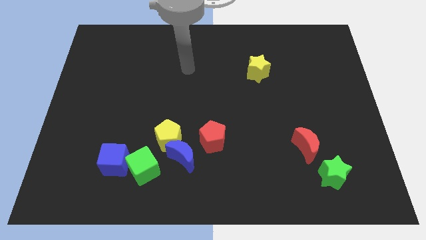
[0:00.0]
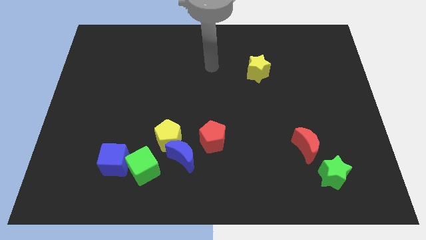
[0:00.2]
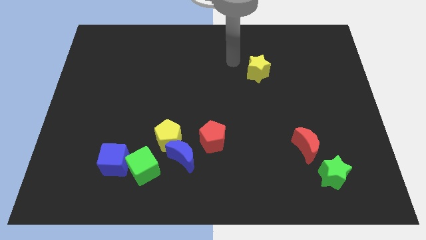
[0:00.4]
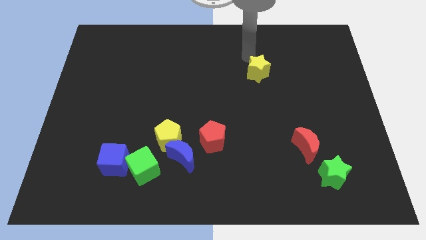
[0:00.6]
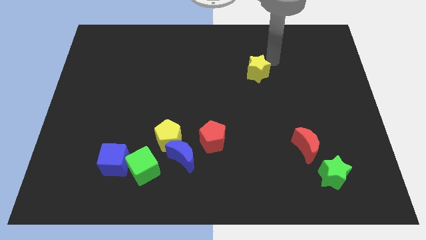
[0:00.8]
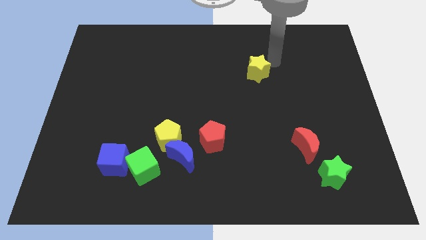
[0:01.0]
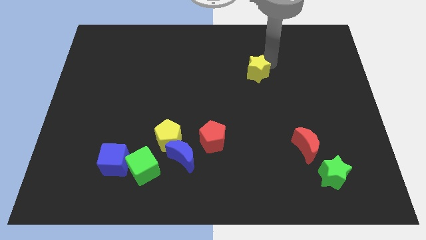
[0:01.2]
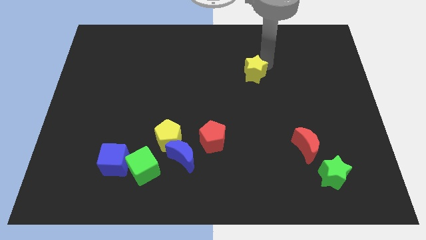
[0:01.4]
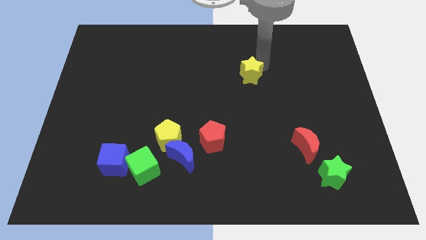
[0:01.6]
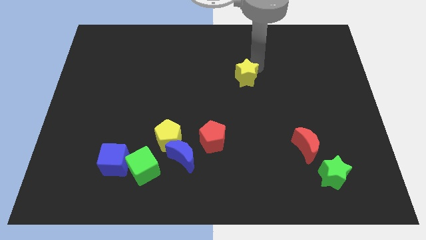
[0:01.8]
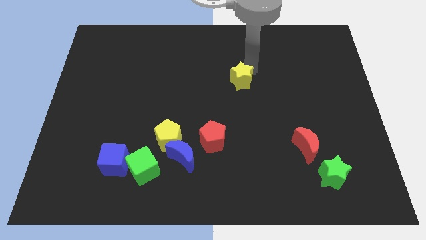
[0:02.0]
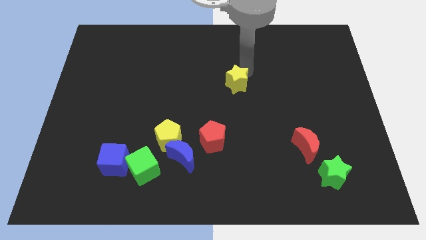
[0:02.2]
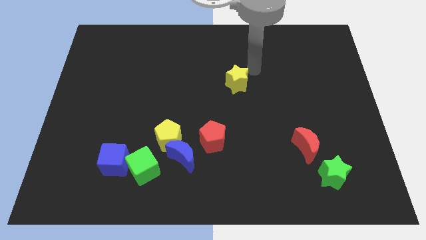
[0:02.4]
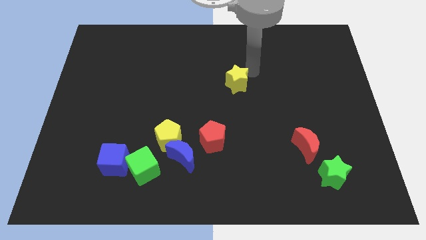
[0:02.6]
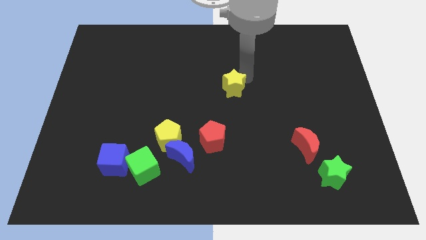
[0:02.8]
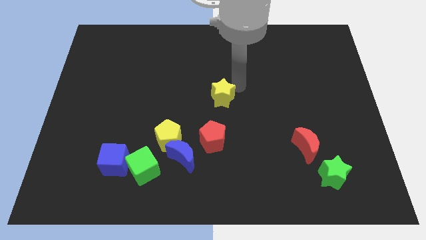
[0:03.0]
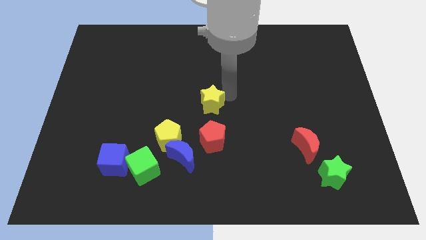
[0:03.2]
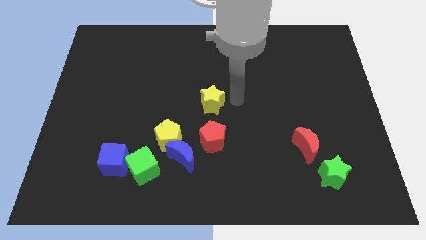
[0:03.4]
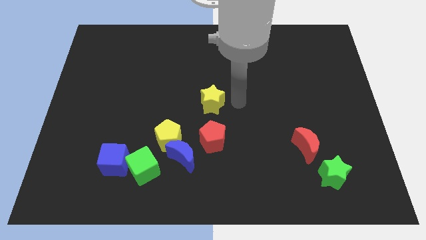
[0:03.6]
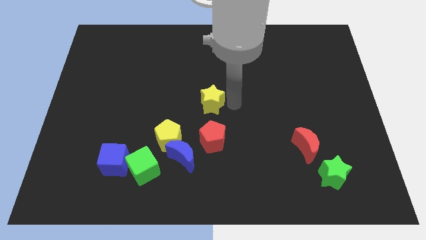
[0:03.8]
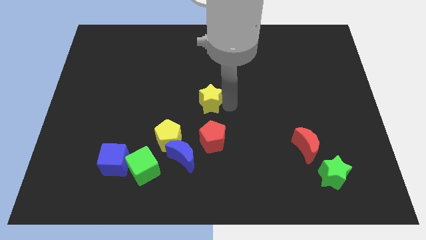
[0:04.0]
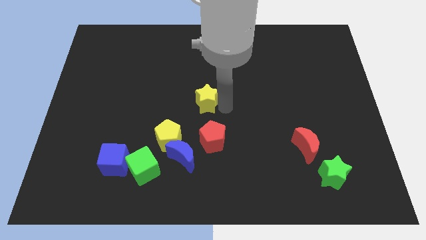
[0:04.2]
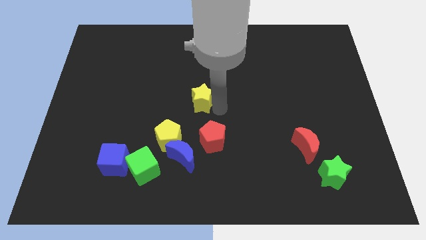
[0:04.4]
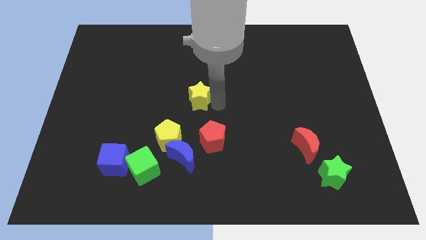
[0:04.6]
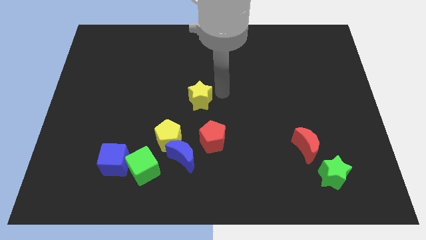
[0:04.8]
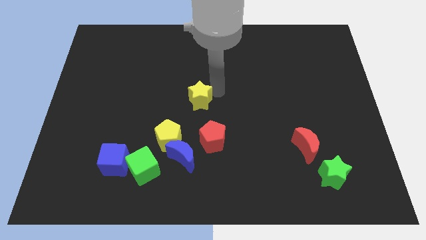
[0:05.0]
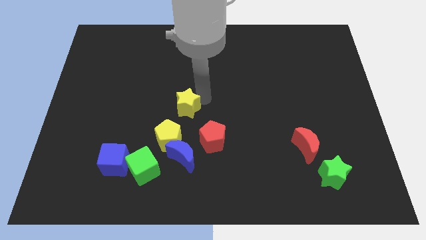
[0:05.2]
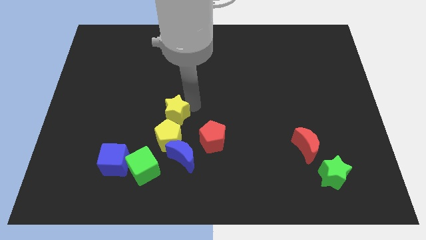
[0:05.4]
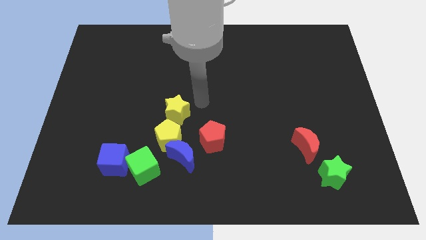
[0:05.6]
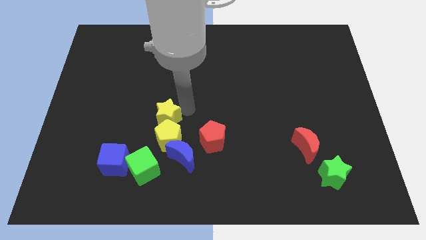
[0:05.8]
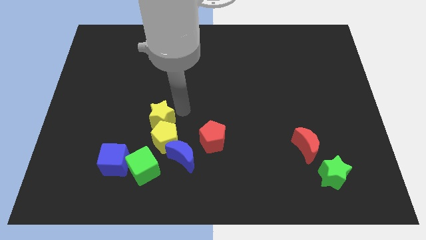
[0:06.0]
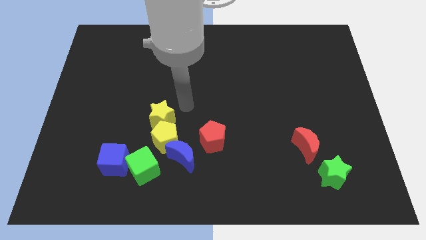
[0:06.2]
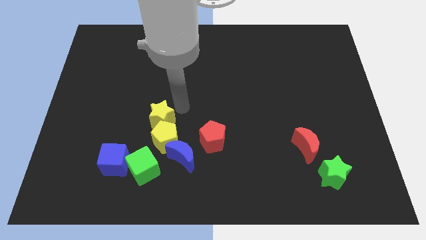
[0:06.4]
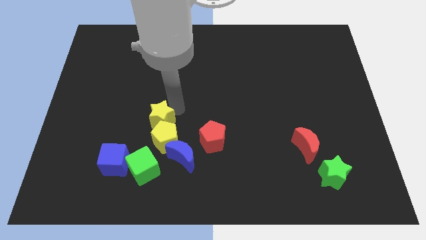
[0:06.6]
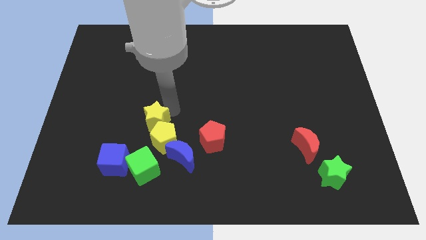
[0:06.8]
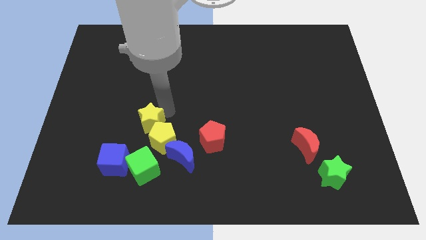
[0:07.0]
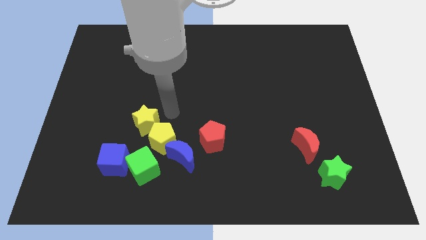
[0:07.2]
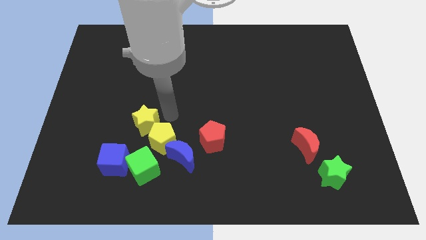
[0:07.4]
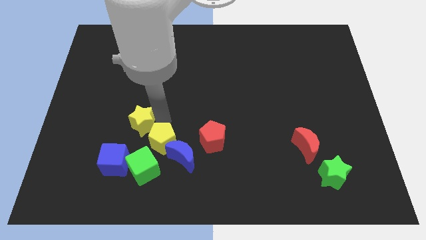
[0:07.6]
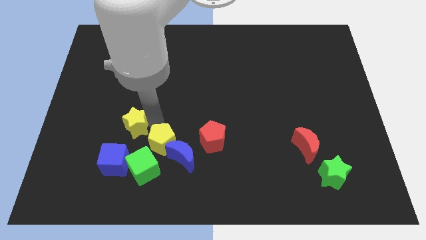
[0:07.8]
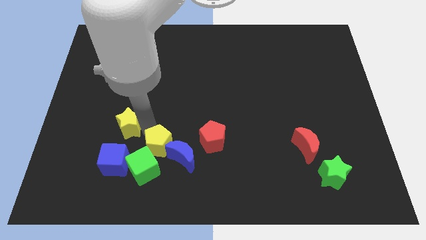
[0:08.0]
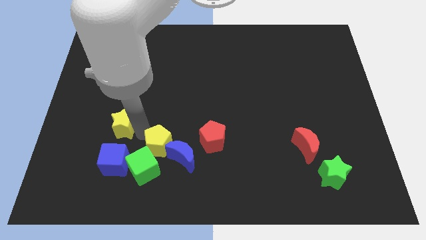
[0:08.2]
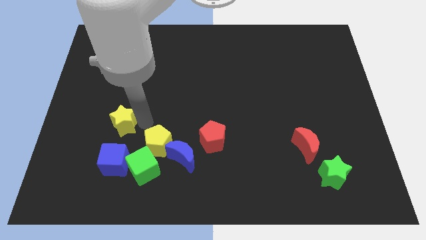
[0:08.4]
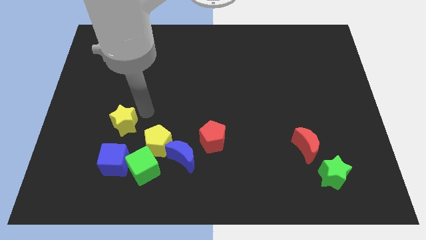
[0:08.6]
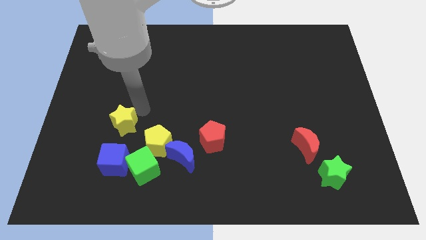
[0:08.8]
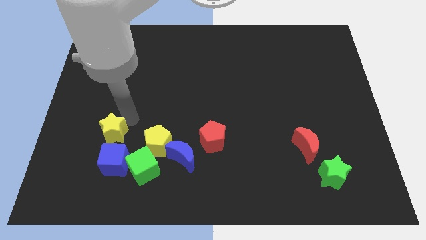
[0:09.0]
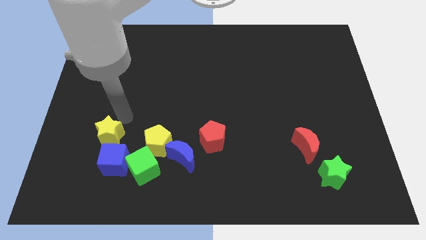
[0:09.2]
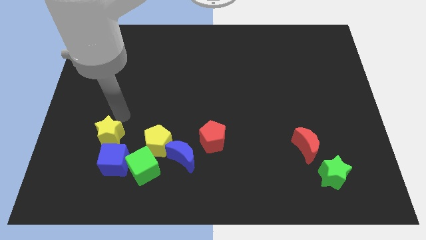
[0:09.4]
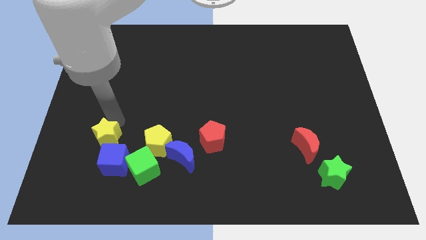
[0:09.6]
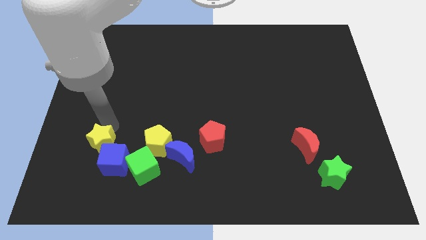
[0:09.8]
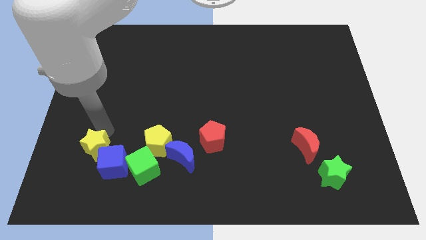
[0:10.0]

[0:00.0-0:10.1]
push the yellow star just left of the green cube

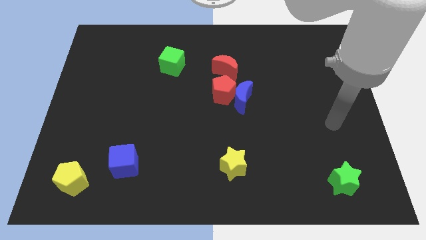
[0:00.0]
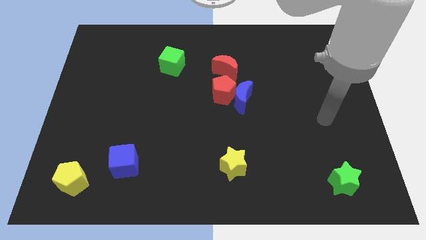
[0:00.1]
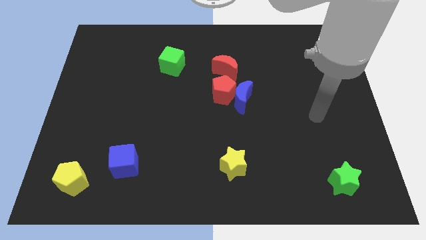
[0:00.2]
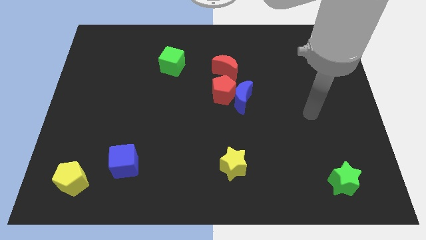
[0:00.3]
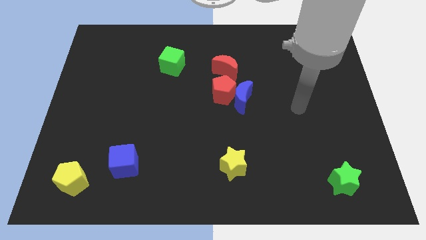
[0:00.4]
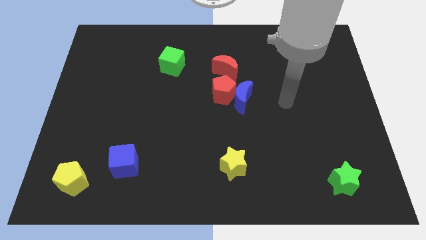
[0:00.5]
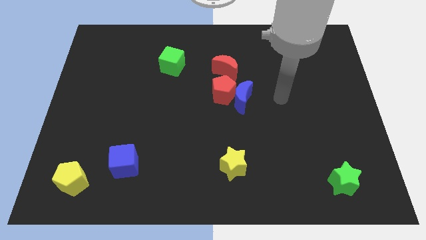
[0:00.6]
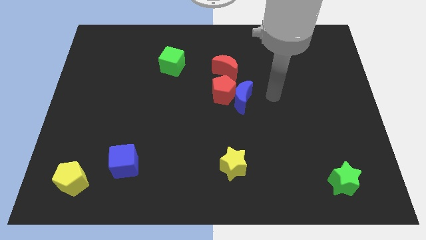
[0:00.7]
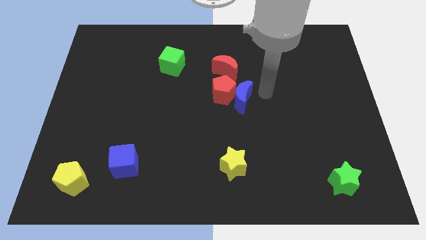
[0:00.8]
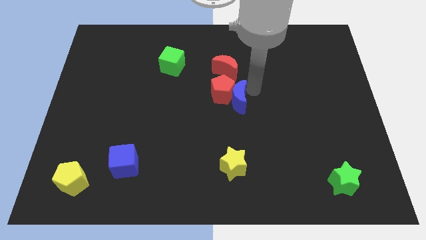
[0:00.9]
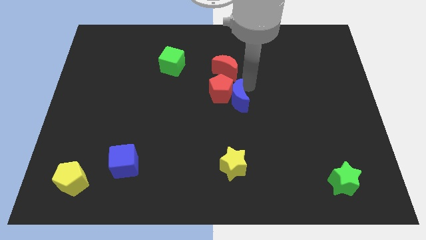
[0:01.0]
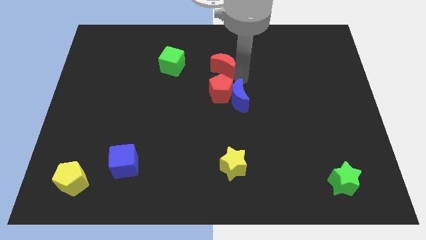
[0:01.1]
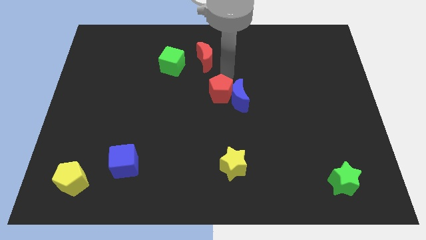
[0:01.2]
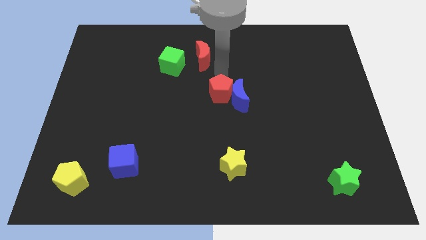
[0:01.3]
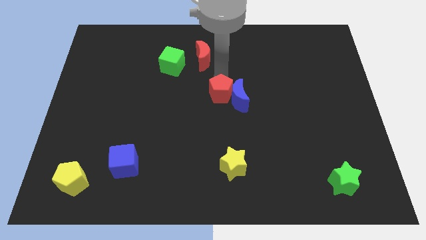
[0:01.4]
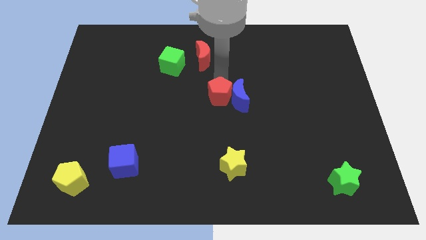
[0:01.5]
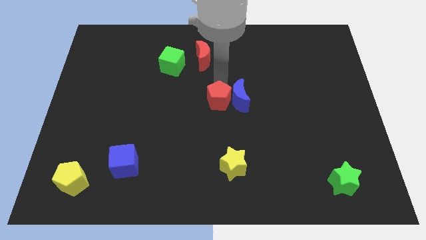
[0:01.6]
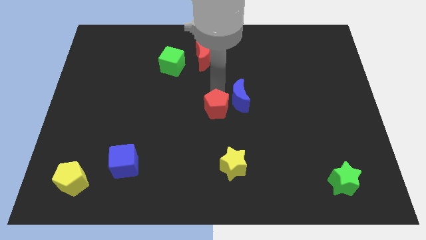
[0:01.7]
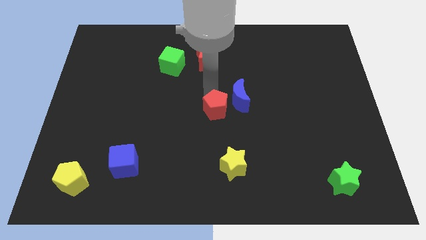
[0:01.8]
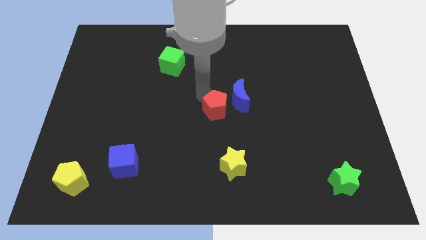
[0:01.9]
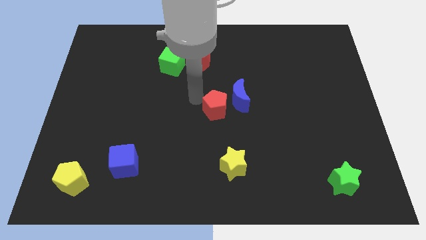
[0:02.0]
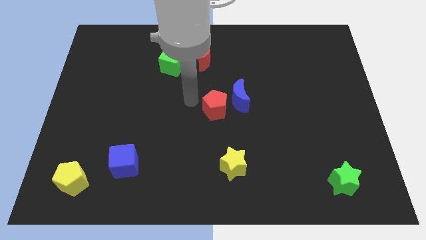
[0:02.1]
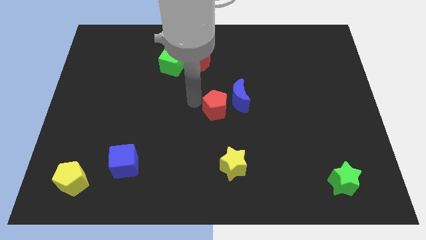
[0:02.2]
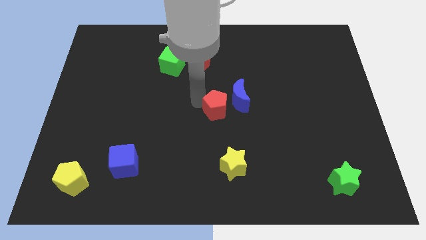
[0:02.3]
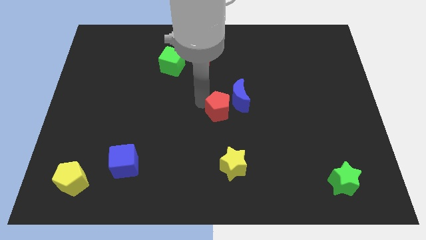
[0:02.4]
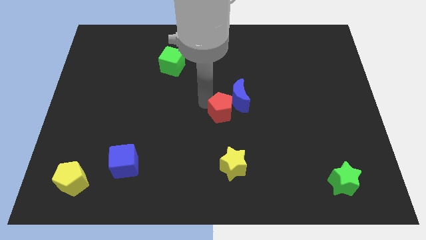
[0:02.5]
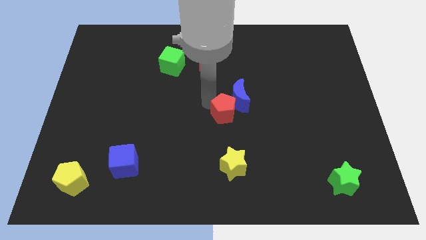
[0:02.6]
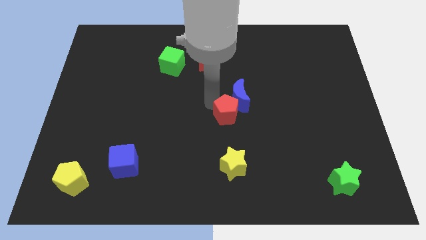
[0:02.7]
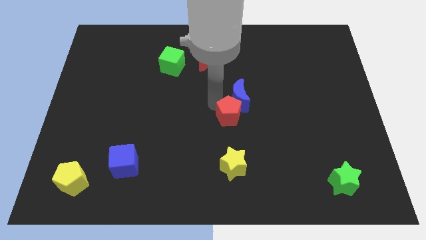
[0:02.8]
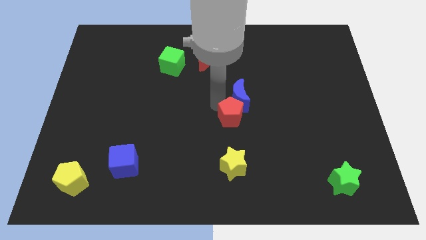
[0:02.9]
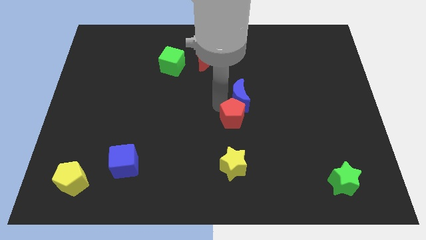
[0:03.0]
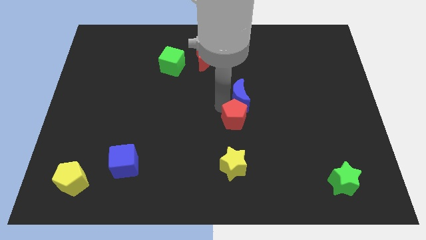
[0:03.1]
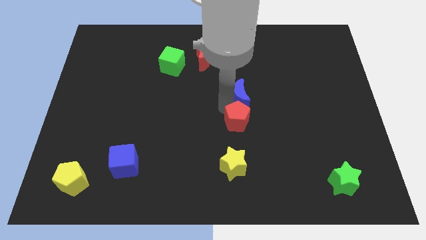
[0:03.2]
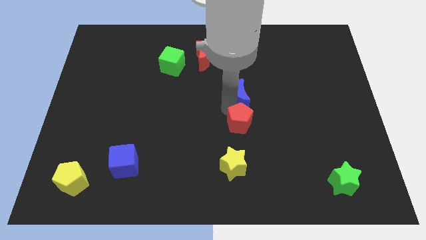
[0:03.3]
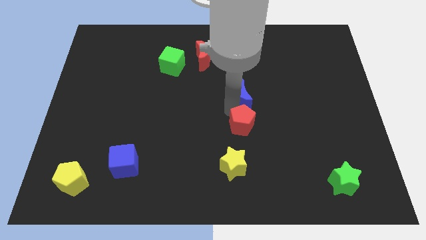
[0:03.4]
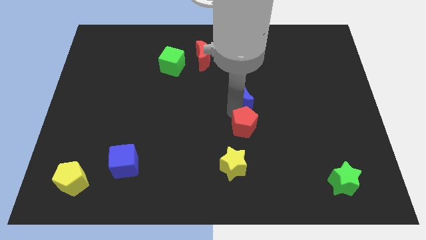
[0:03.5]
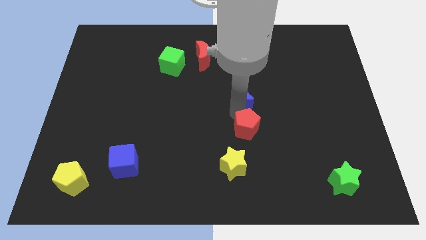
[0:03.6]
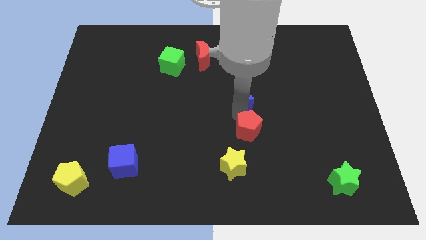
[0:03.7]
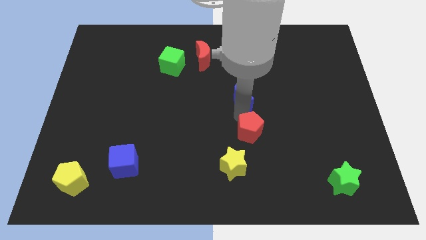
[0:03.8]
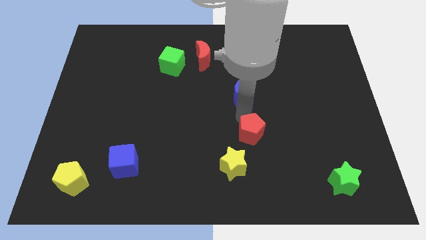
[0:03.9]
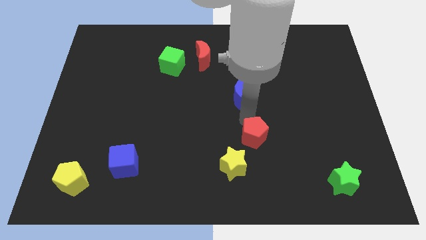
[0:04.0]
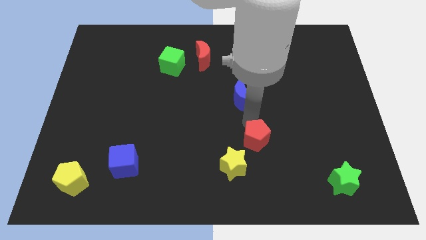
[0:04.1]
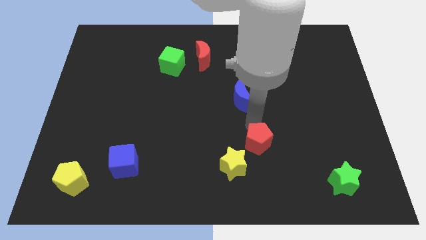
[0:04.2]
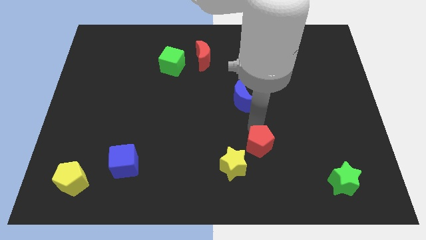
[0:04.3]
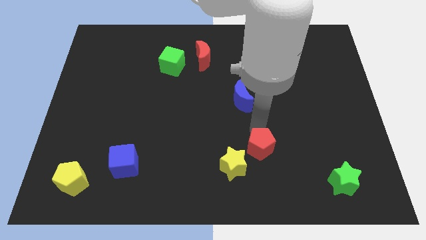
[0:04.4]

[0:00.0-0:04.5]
put the red pentagon to the right of the yellow star
